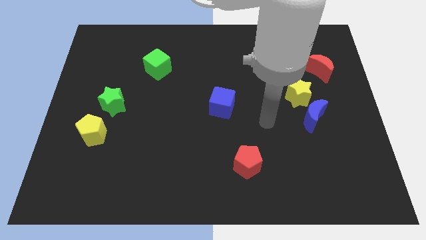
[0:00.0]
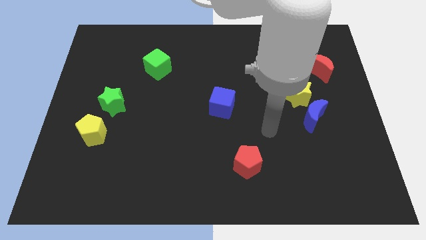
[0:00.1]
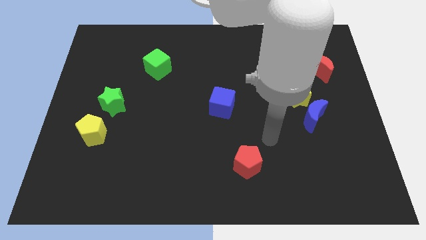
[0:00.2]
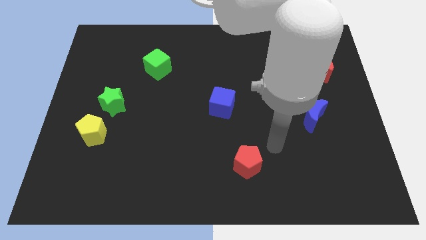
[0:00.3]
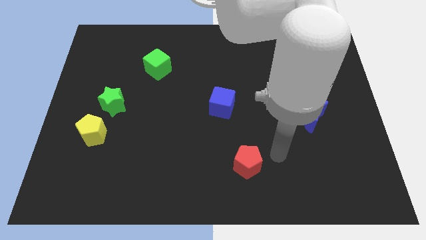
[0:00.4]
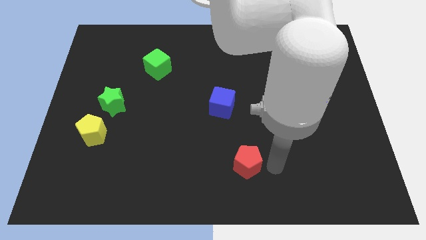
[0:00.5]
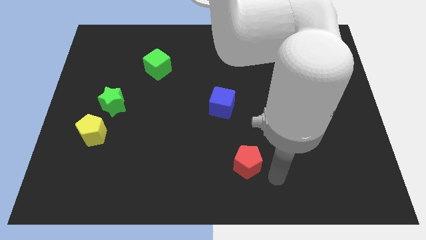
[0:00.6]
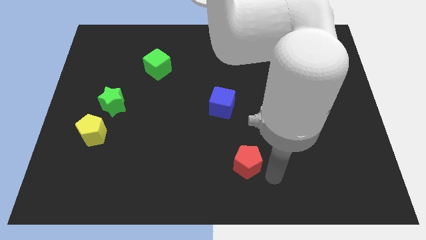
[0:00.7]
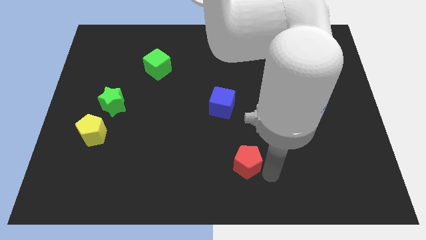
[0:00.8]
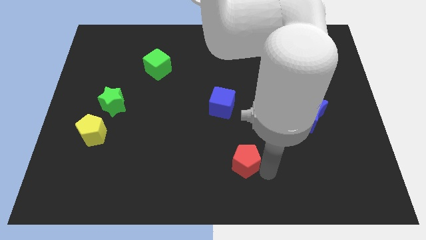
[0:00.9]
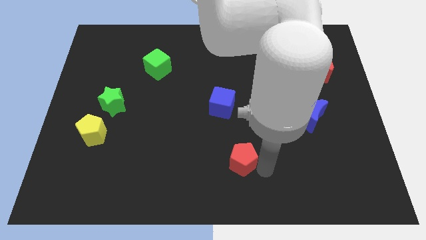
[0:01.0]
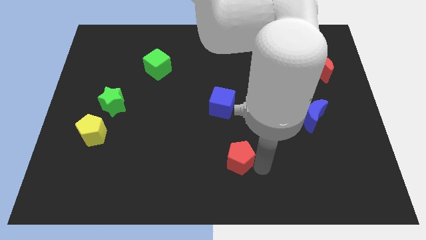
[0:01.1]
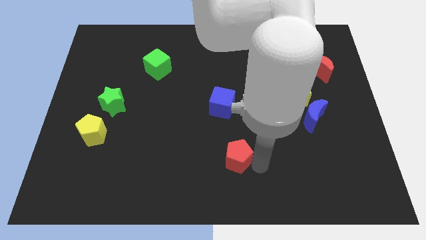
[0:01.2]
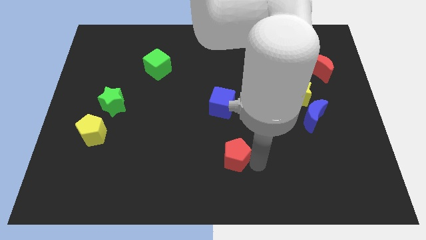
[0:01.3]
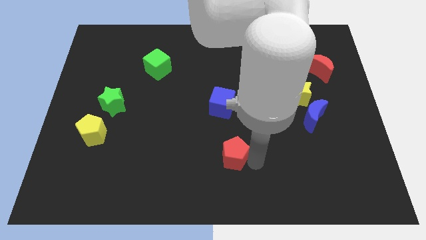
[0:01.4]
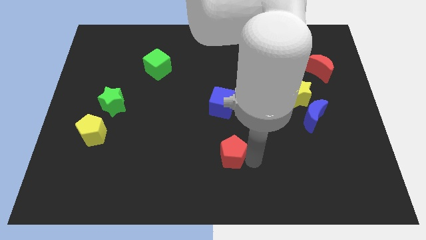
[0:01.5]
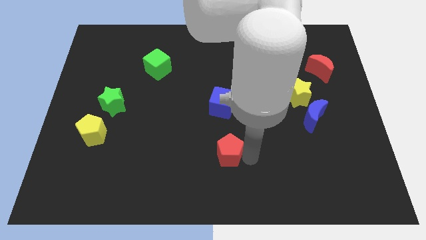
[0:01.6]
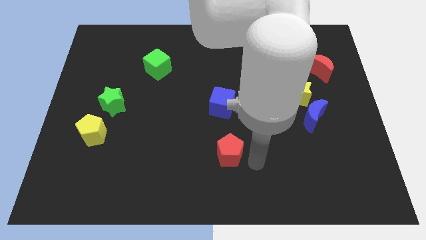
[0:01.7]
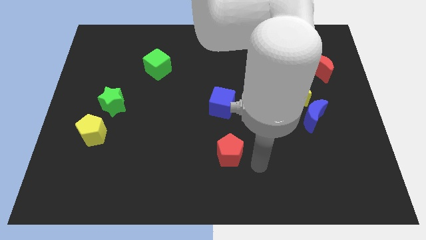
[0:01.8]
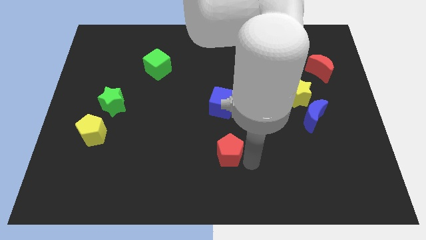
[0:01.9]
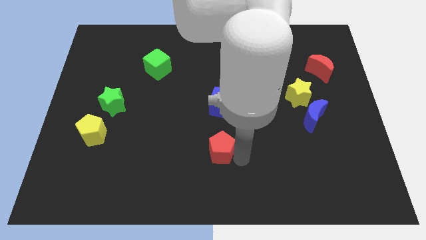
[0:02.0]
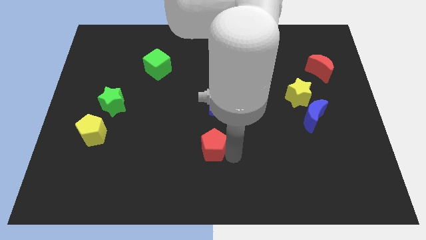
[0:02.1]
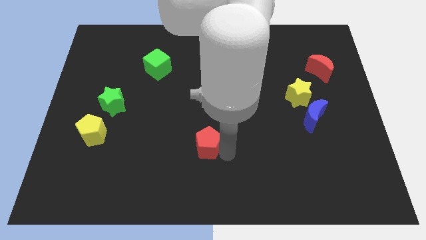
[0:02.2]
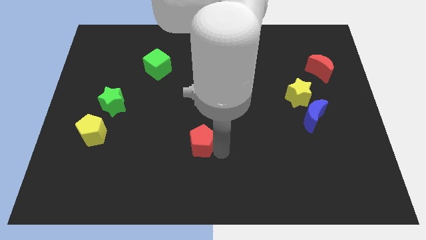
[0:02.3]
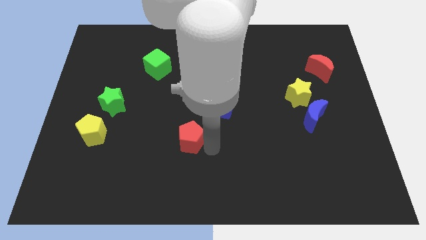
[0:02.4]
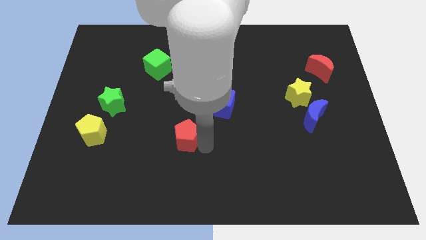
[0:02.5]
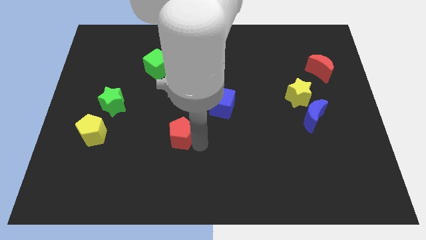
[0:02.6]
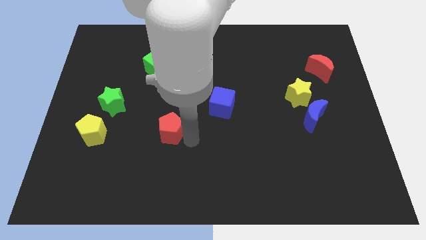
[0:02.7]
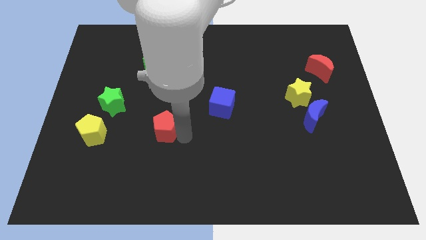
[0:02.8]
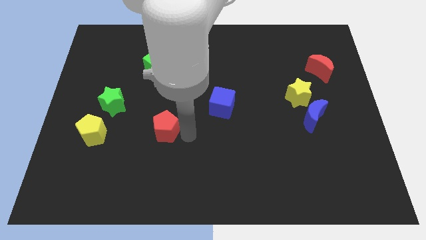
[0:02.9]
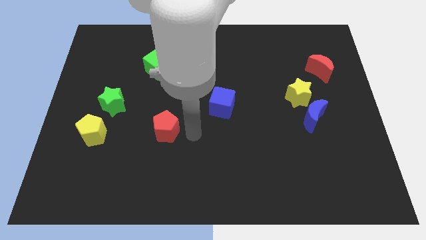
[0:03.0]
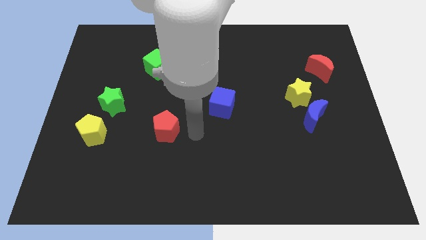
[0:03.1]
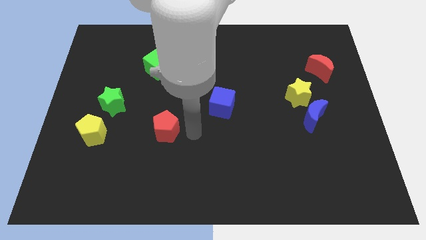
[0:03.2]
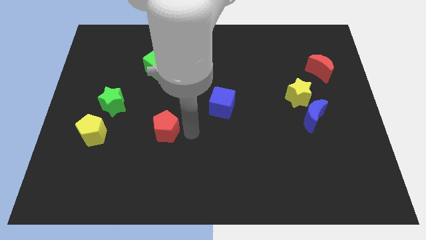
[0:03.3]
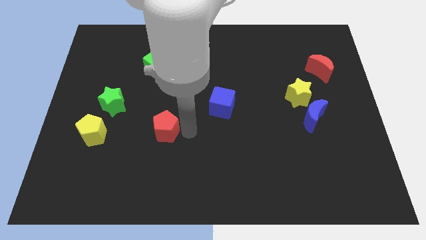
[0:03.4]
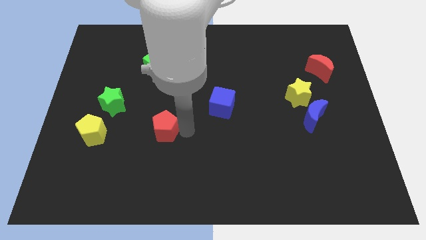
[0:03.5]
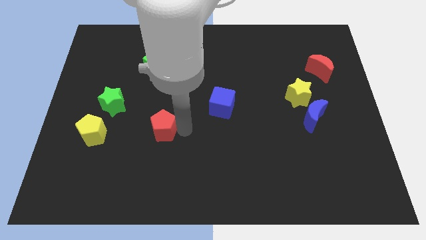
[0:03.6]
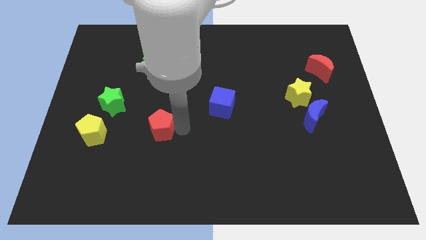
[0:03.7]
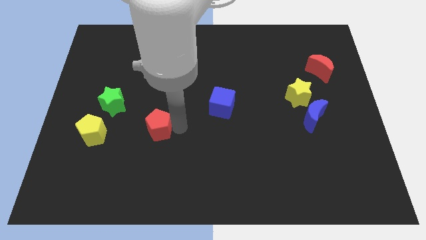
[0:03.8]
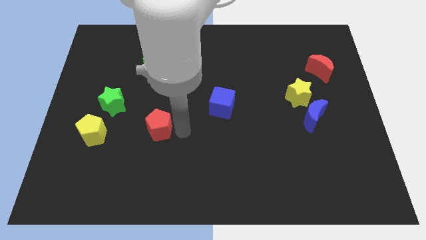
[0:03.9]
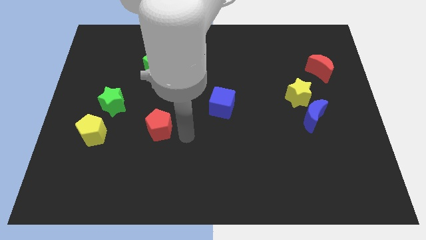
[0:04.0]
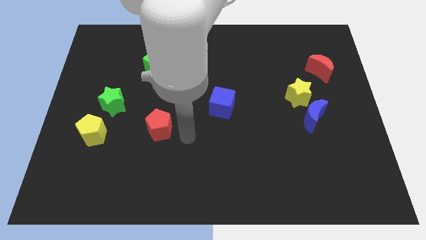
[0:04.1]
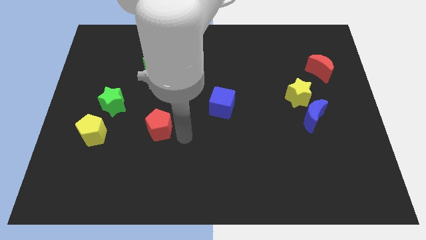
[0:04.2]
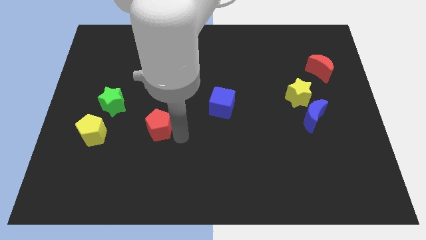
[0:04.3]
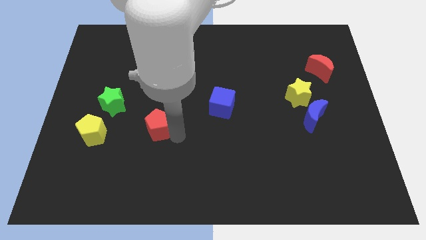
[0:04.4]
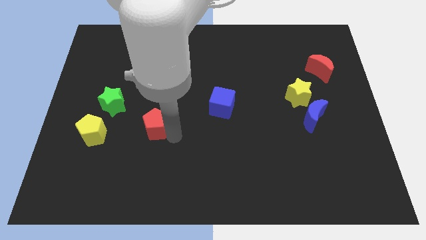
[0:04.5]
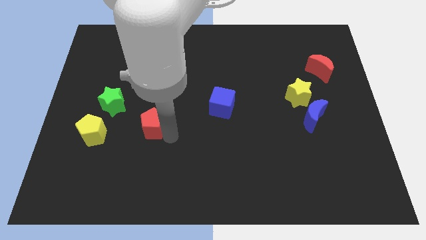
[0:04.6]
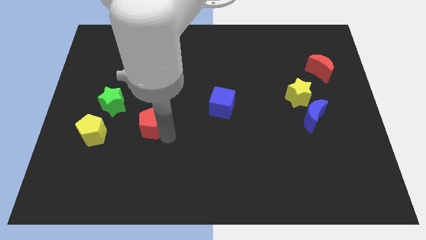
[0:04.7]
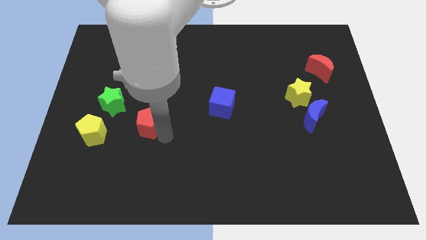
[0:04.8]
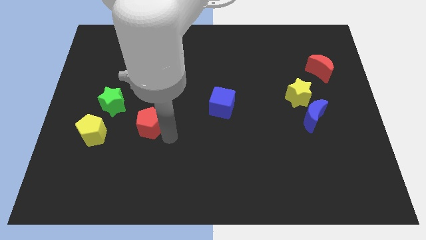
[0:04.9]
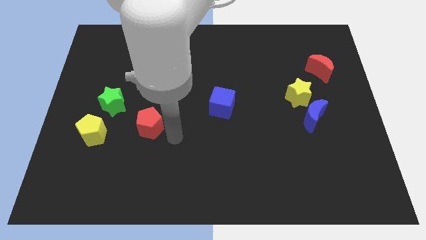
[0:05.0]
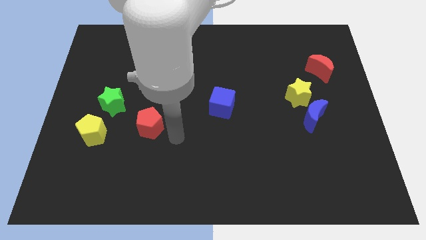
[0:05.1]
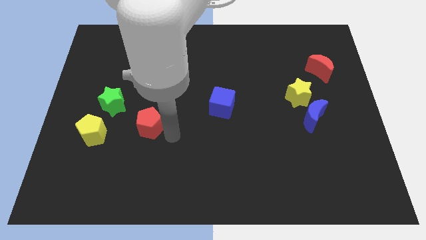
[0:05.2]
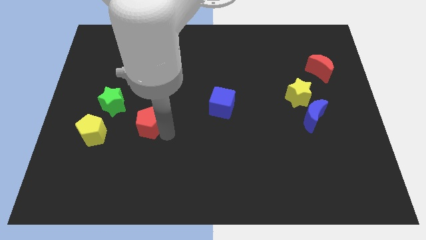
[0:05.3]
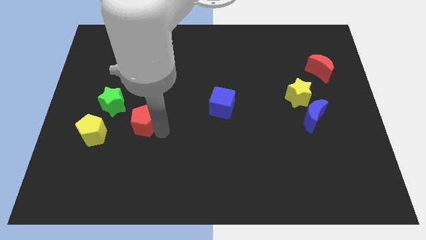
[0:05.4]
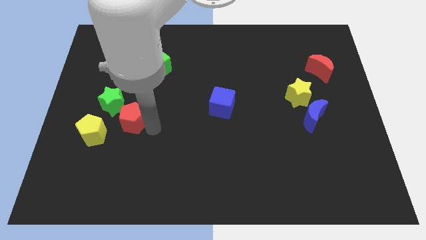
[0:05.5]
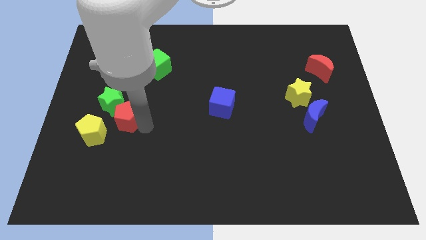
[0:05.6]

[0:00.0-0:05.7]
move the red pentagon close to the green star

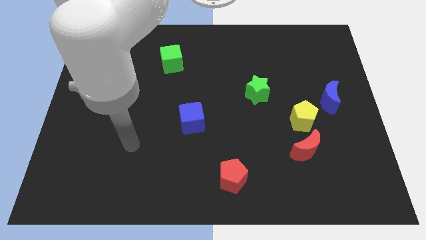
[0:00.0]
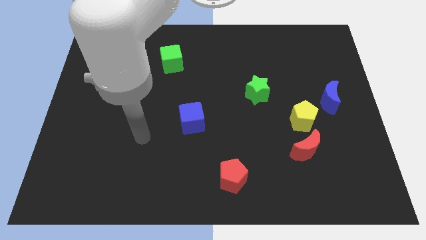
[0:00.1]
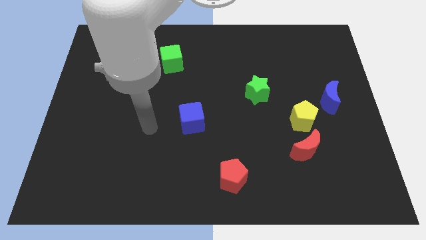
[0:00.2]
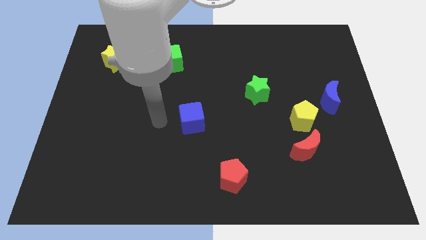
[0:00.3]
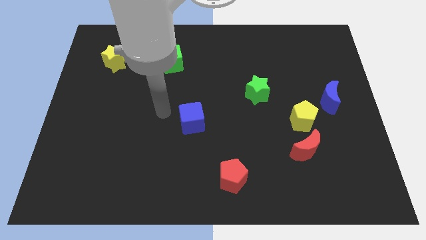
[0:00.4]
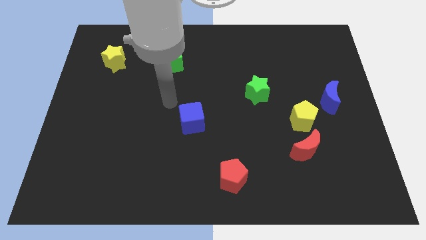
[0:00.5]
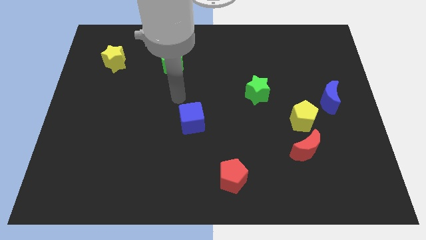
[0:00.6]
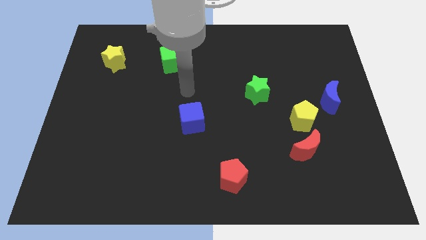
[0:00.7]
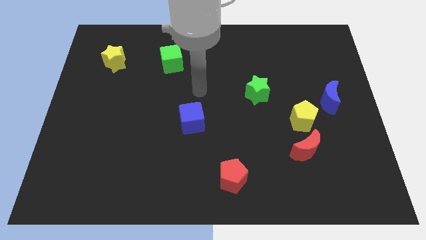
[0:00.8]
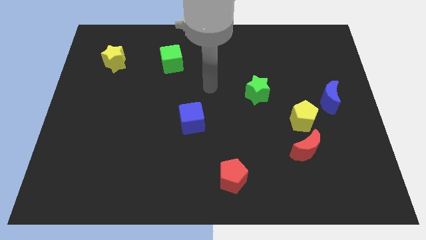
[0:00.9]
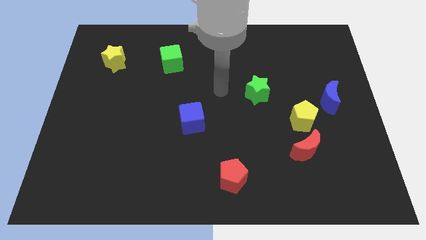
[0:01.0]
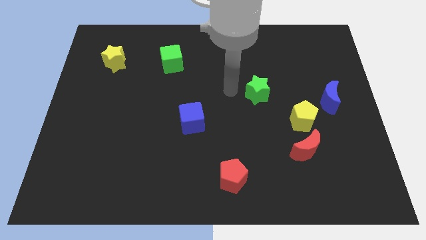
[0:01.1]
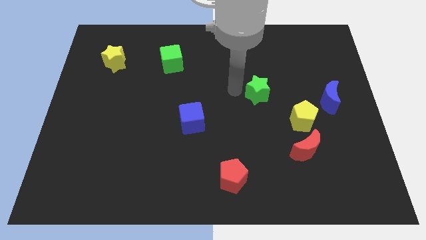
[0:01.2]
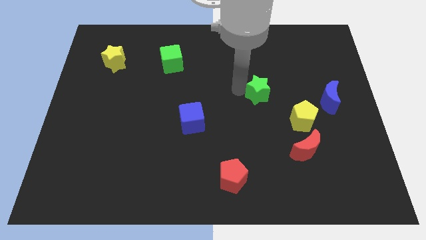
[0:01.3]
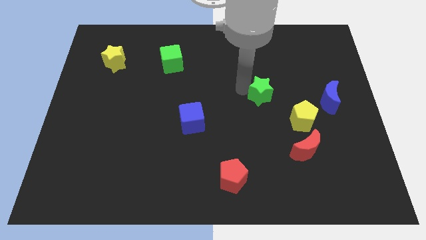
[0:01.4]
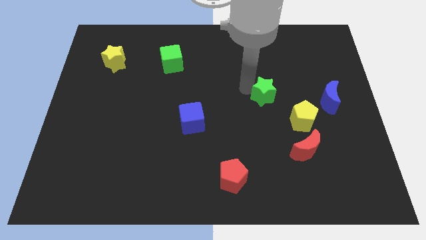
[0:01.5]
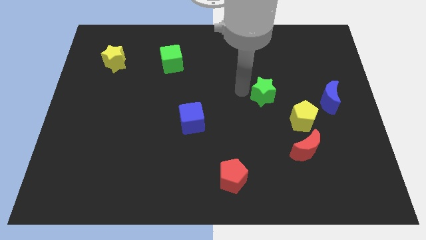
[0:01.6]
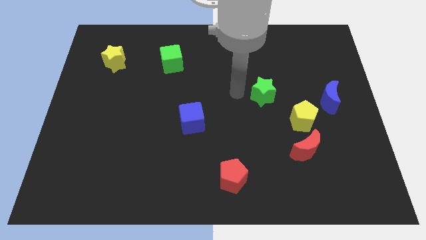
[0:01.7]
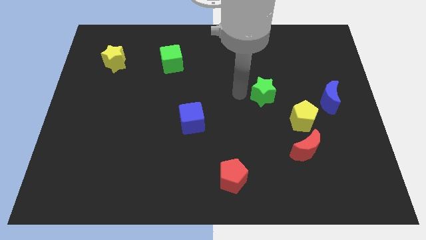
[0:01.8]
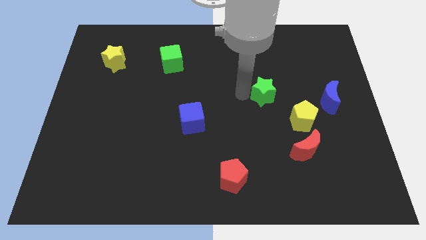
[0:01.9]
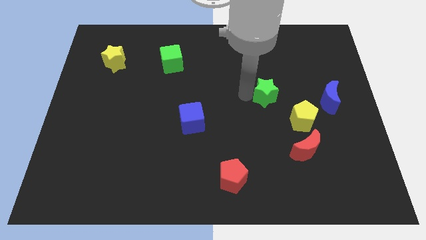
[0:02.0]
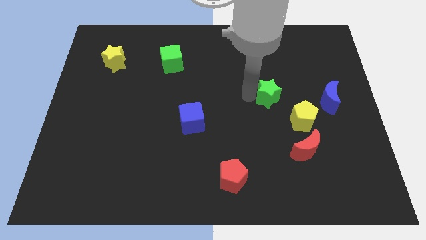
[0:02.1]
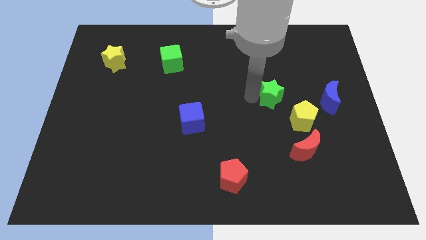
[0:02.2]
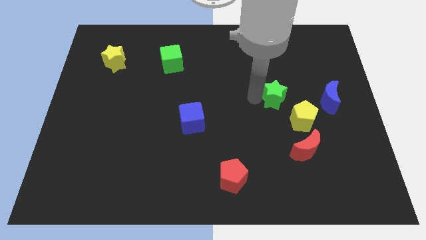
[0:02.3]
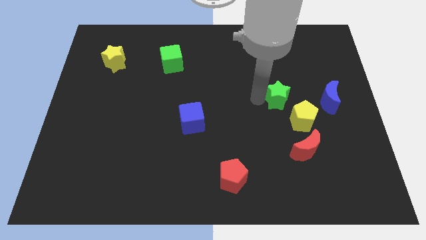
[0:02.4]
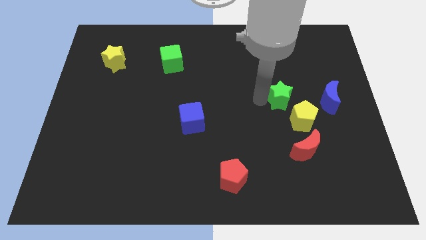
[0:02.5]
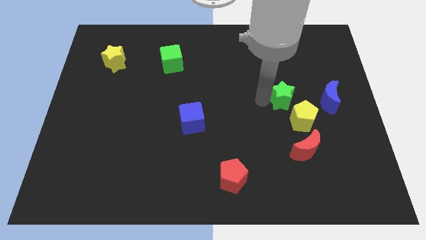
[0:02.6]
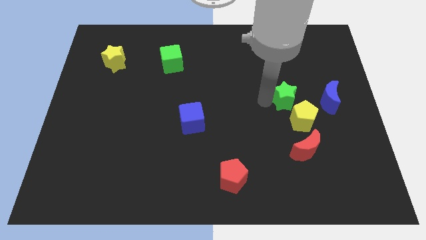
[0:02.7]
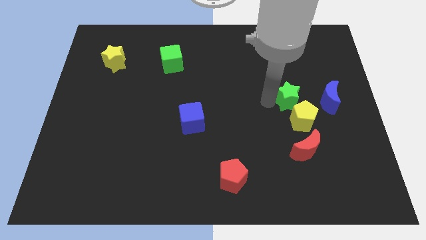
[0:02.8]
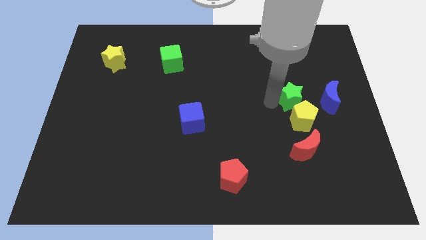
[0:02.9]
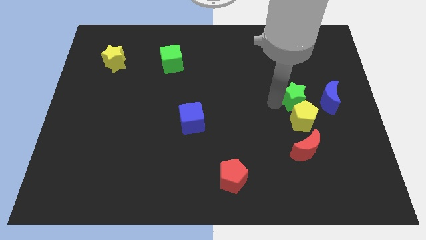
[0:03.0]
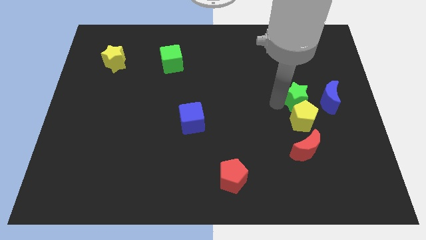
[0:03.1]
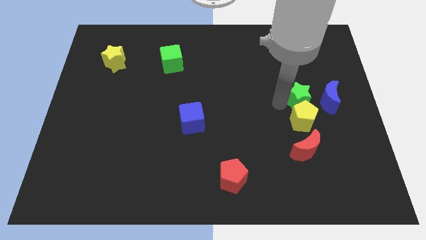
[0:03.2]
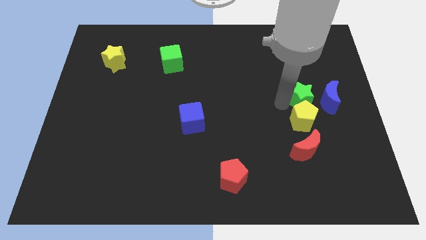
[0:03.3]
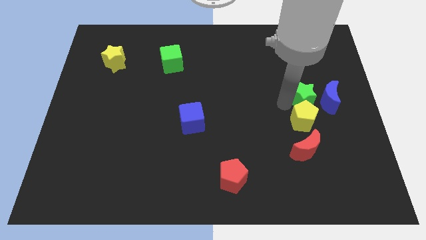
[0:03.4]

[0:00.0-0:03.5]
move the green star to the blue moon
